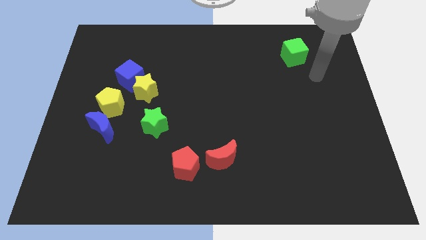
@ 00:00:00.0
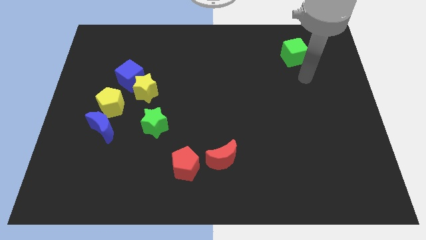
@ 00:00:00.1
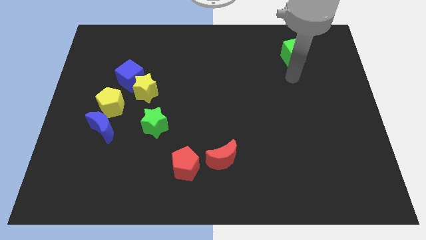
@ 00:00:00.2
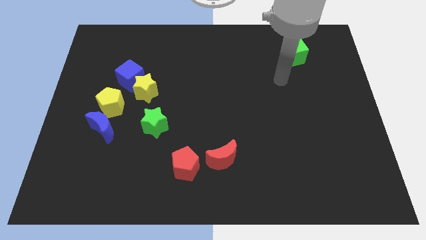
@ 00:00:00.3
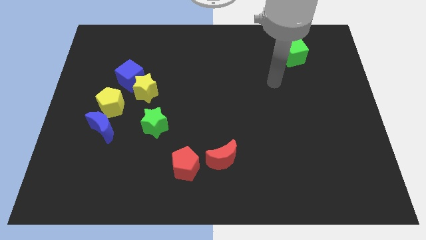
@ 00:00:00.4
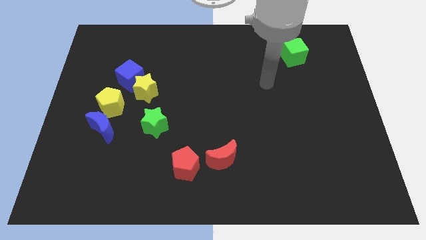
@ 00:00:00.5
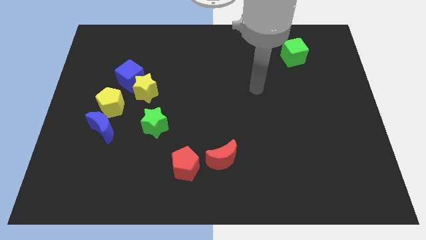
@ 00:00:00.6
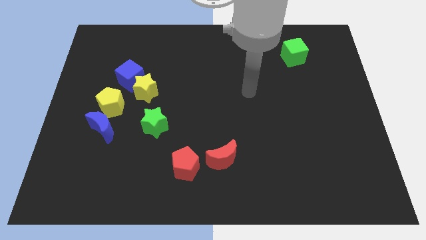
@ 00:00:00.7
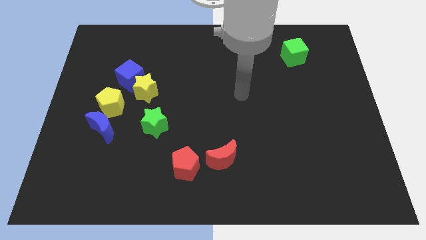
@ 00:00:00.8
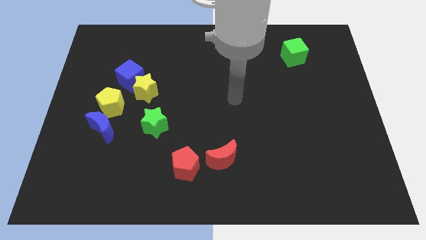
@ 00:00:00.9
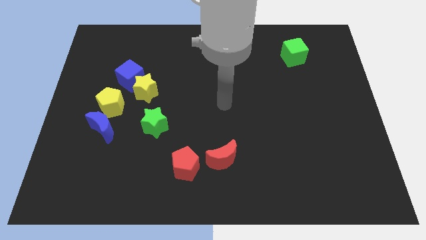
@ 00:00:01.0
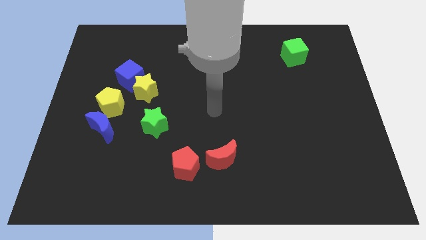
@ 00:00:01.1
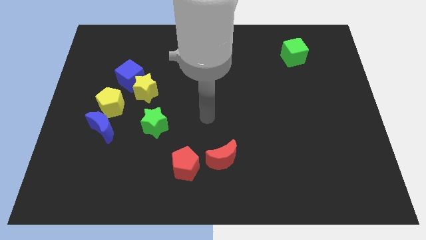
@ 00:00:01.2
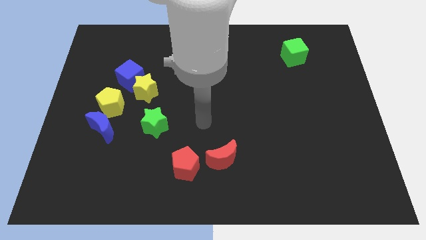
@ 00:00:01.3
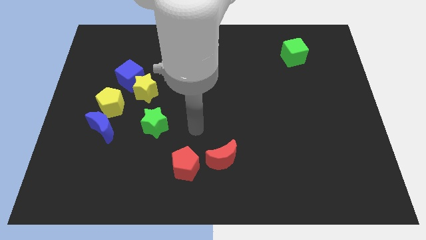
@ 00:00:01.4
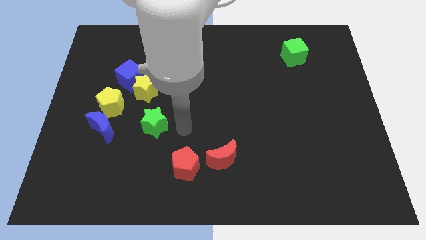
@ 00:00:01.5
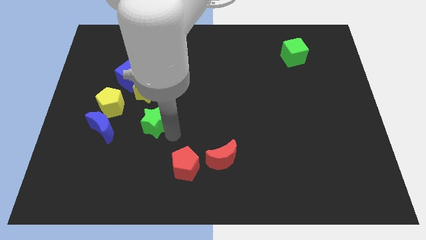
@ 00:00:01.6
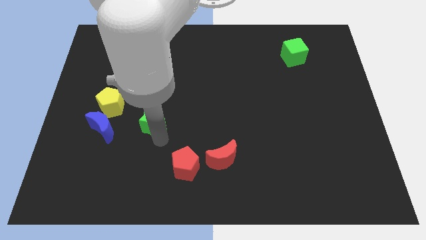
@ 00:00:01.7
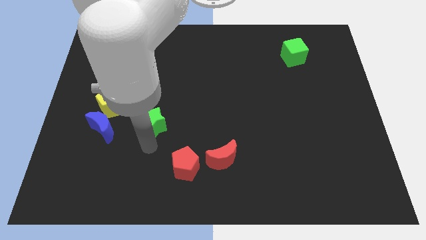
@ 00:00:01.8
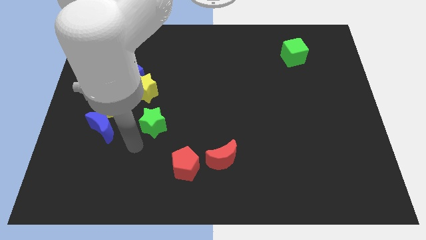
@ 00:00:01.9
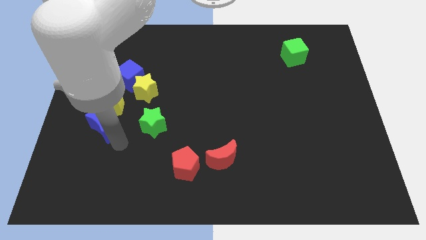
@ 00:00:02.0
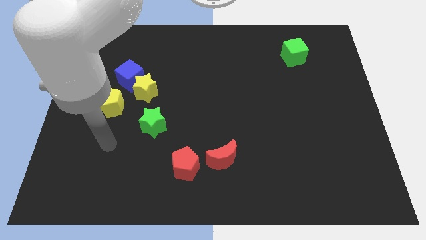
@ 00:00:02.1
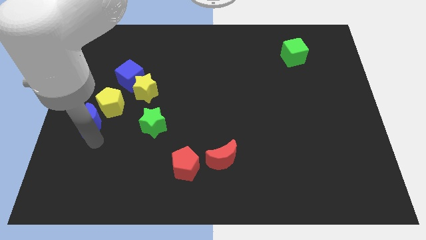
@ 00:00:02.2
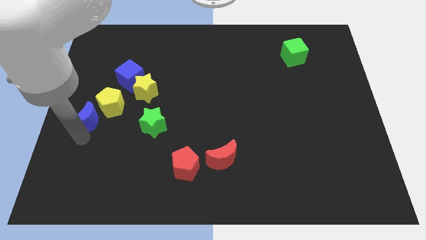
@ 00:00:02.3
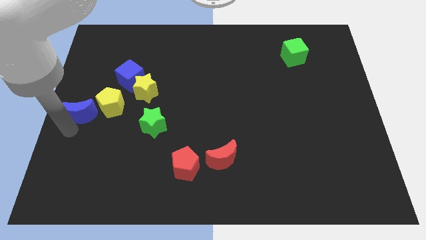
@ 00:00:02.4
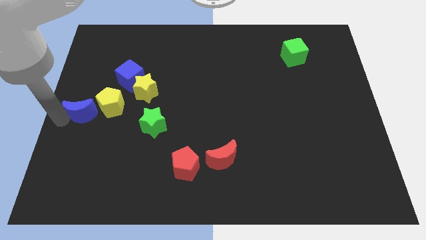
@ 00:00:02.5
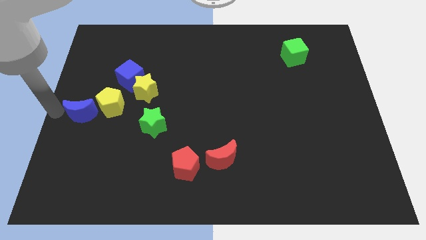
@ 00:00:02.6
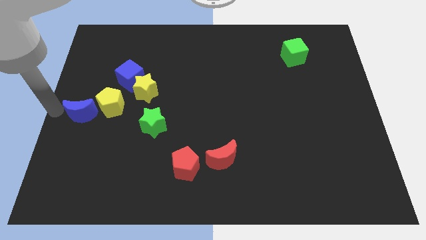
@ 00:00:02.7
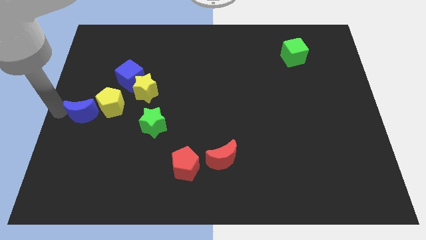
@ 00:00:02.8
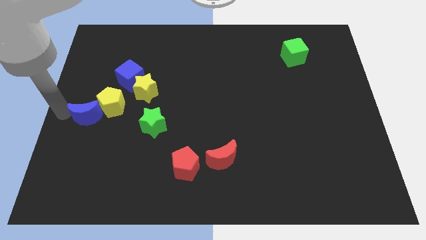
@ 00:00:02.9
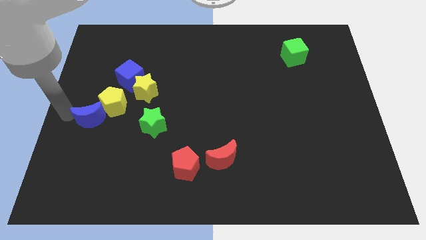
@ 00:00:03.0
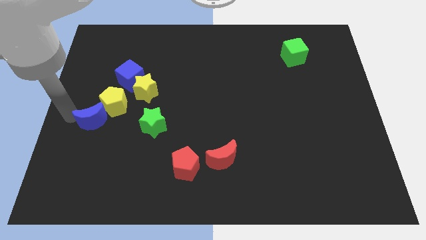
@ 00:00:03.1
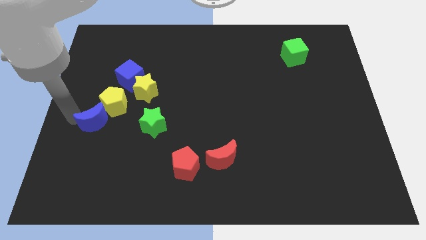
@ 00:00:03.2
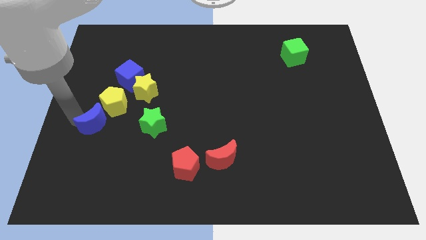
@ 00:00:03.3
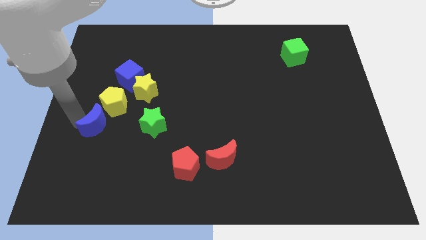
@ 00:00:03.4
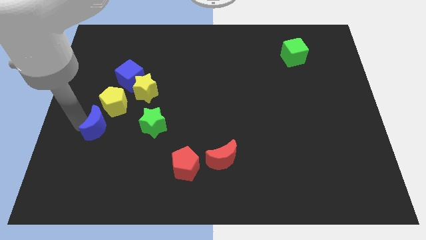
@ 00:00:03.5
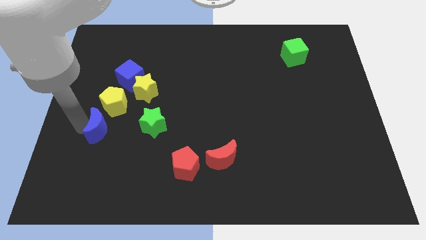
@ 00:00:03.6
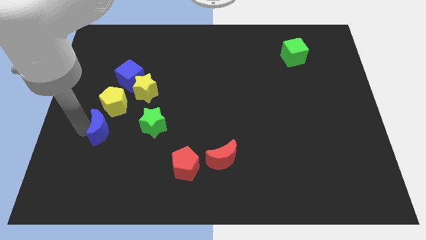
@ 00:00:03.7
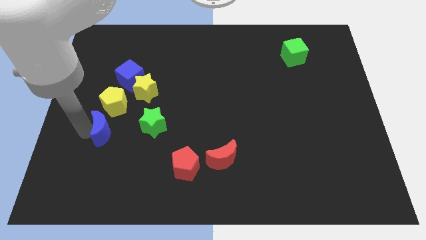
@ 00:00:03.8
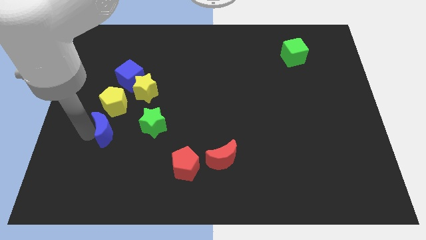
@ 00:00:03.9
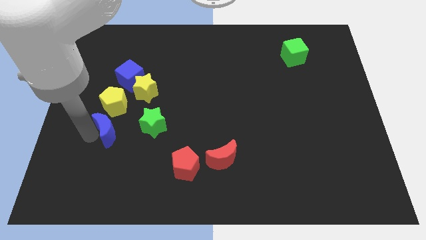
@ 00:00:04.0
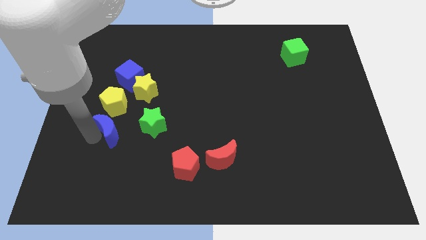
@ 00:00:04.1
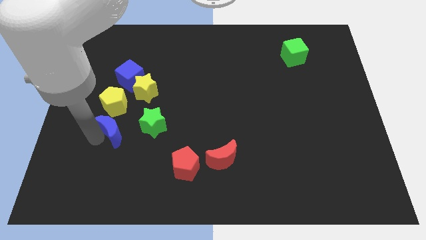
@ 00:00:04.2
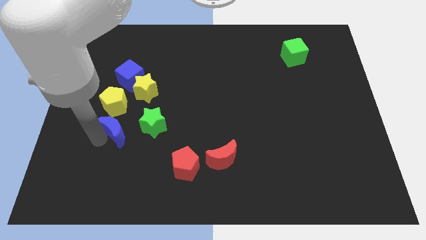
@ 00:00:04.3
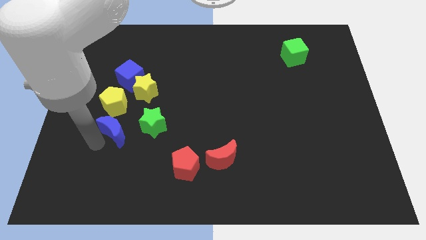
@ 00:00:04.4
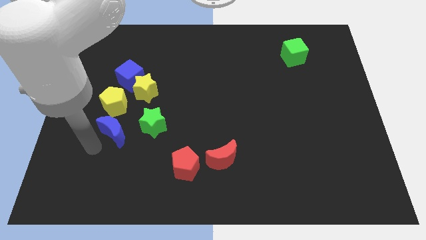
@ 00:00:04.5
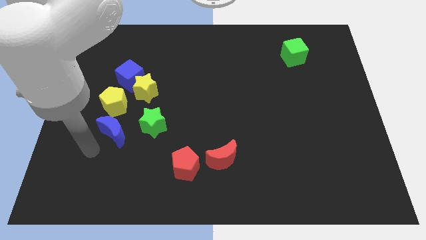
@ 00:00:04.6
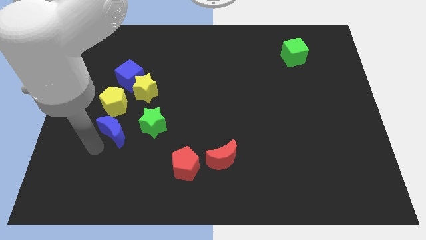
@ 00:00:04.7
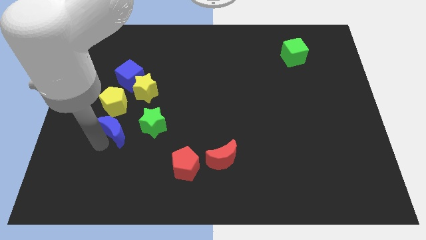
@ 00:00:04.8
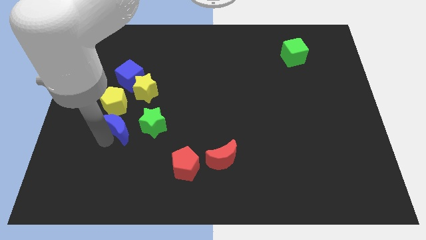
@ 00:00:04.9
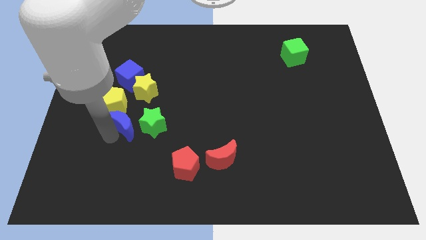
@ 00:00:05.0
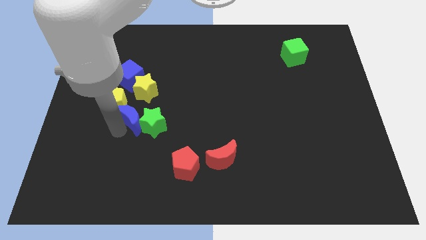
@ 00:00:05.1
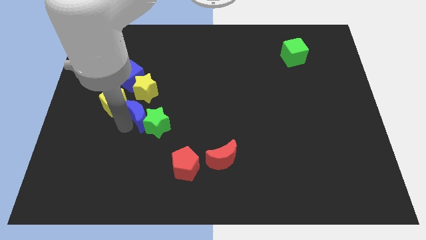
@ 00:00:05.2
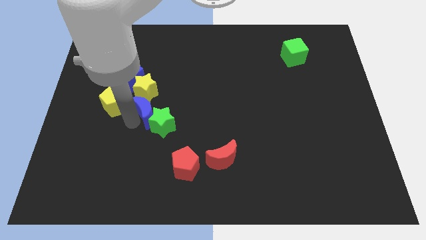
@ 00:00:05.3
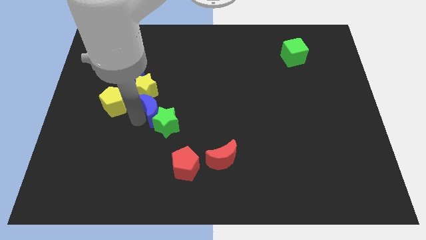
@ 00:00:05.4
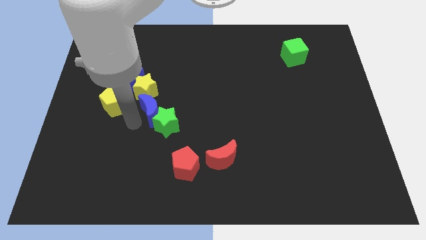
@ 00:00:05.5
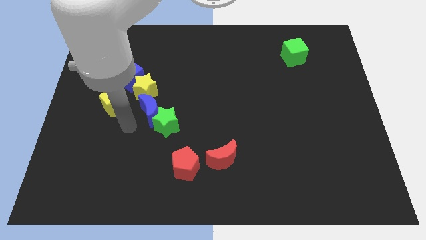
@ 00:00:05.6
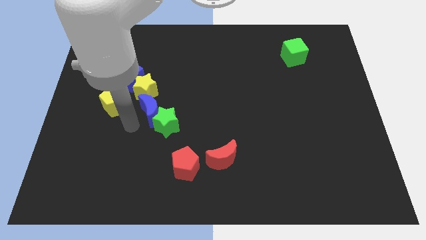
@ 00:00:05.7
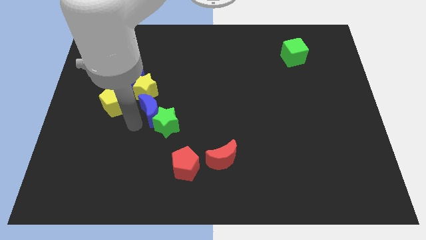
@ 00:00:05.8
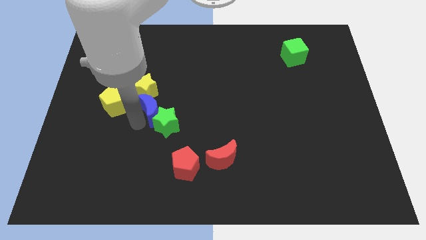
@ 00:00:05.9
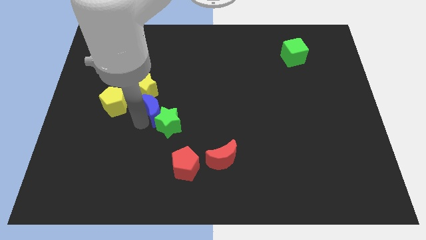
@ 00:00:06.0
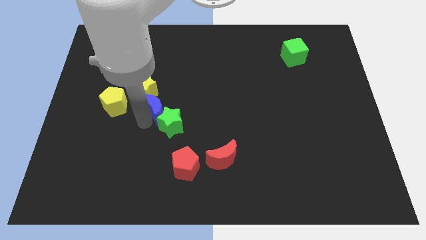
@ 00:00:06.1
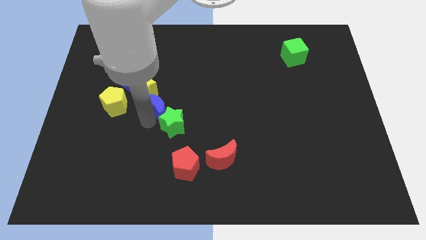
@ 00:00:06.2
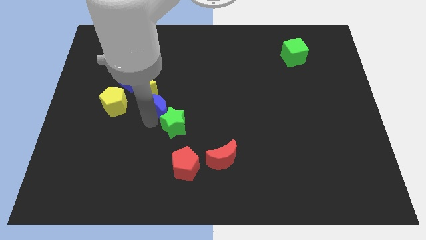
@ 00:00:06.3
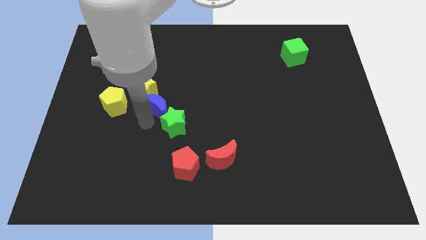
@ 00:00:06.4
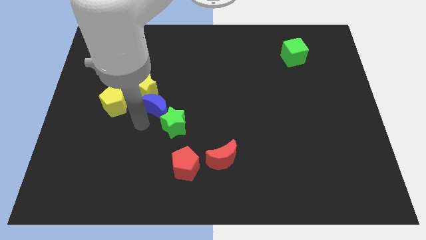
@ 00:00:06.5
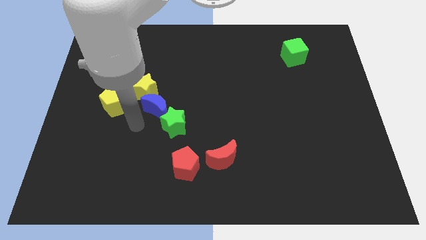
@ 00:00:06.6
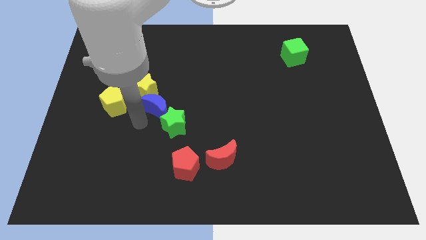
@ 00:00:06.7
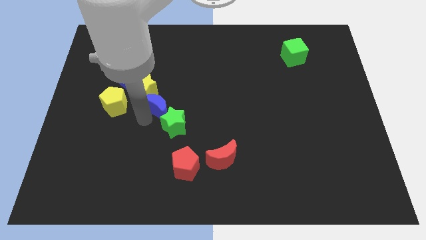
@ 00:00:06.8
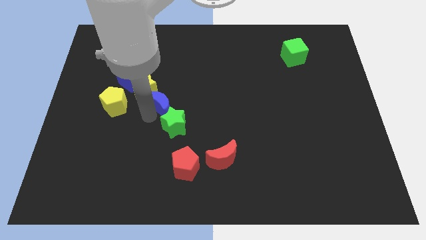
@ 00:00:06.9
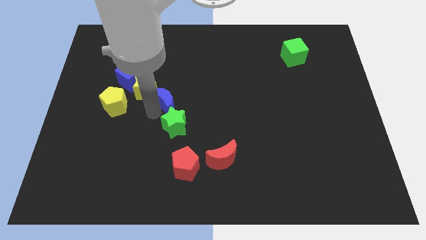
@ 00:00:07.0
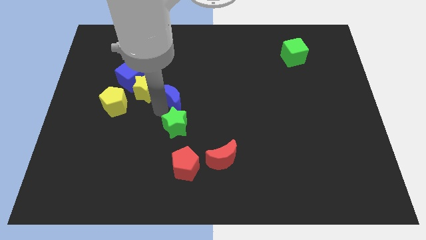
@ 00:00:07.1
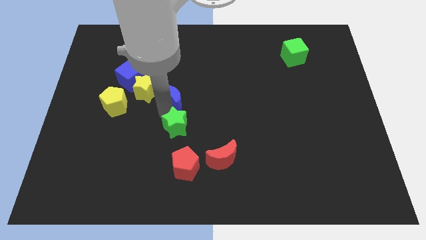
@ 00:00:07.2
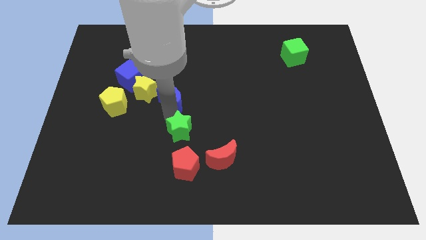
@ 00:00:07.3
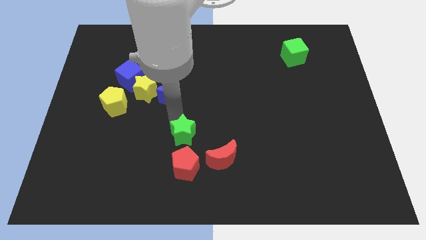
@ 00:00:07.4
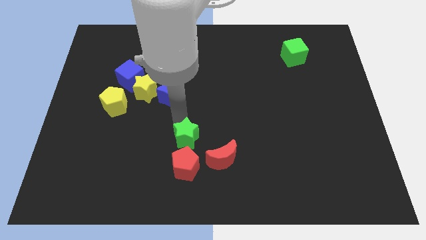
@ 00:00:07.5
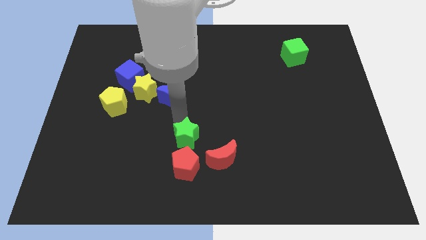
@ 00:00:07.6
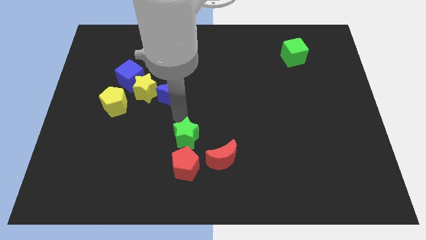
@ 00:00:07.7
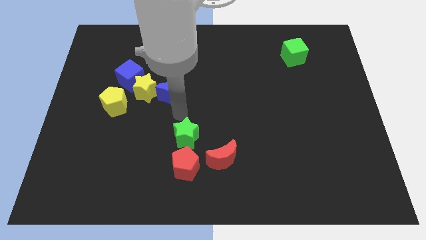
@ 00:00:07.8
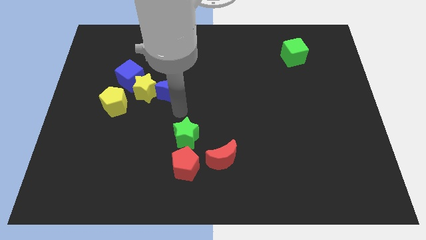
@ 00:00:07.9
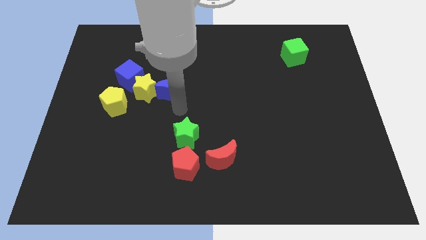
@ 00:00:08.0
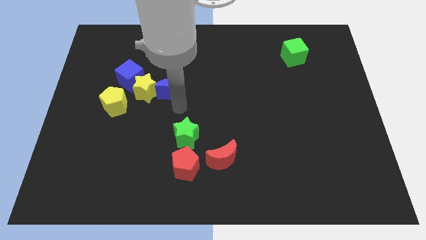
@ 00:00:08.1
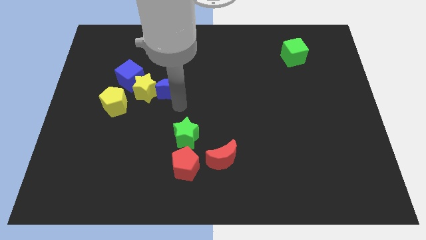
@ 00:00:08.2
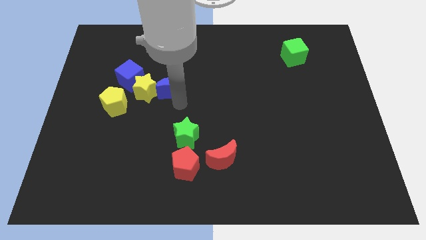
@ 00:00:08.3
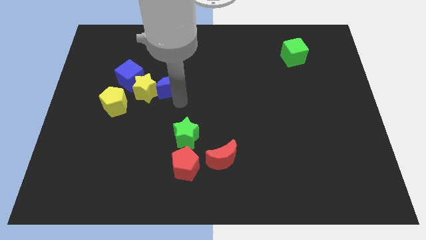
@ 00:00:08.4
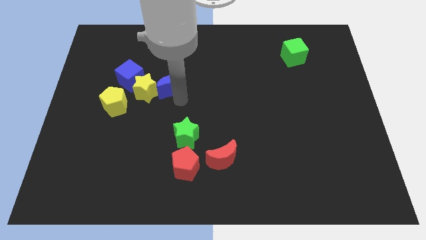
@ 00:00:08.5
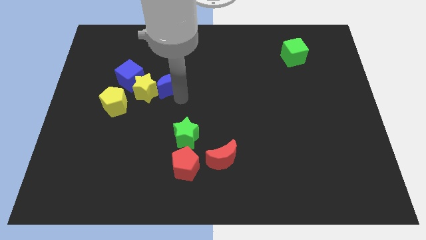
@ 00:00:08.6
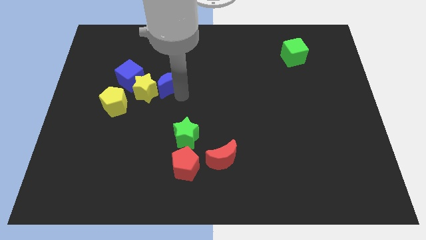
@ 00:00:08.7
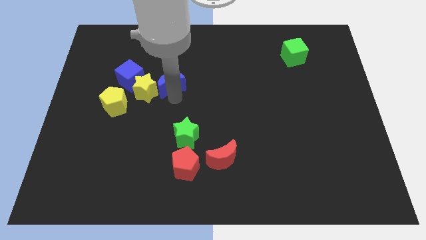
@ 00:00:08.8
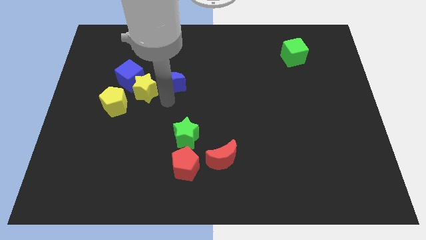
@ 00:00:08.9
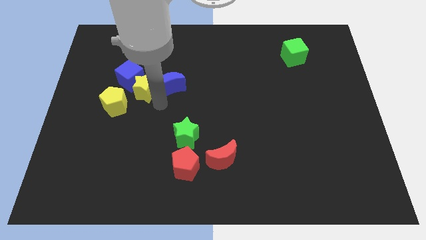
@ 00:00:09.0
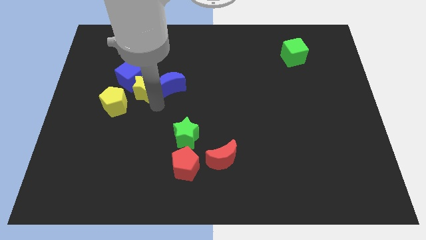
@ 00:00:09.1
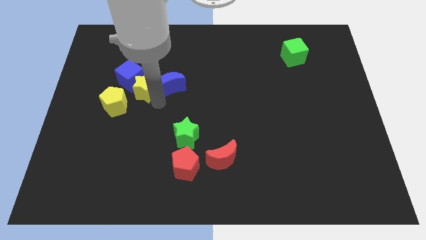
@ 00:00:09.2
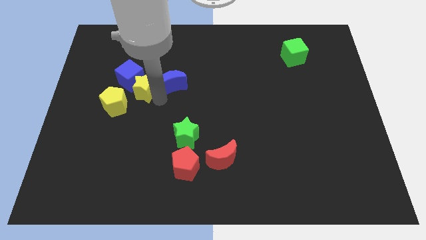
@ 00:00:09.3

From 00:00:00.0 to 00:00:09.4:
slide the blue moon up and right diagonally
